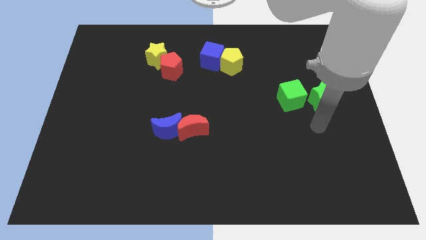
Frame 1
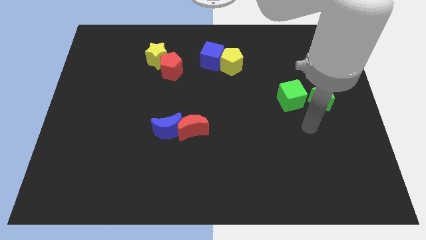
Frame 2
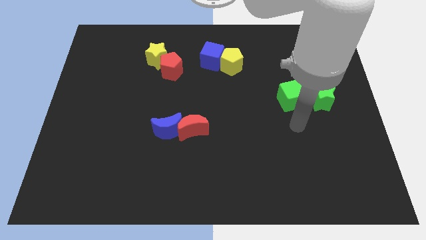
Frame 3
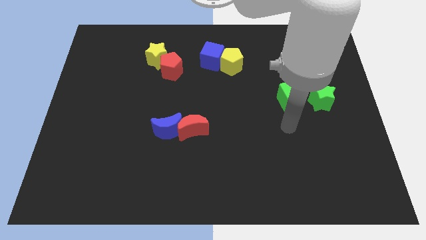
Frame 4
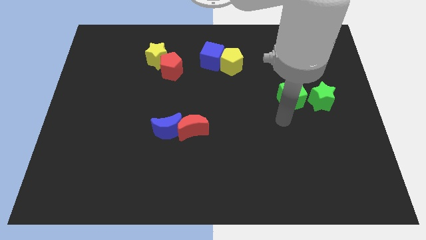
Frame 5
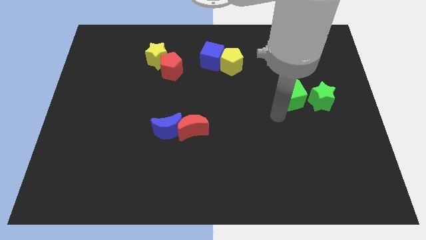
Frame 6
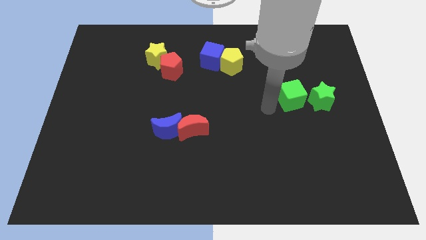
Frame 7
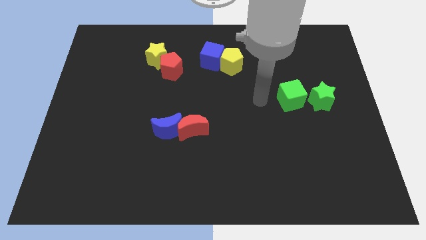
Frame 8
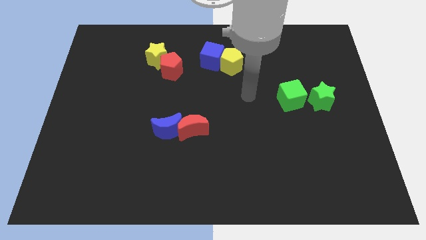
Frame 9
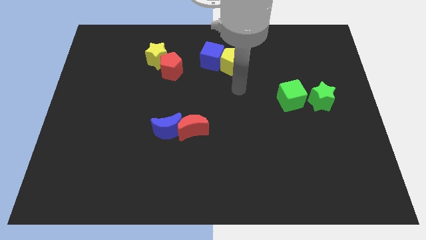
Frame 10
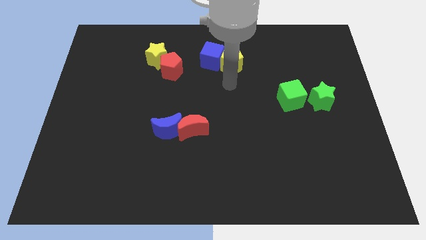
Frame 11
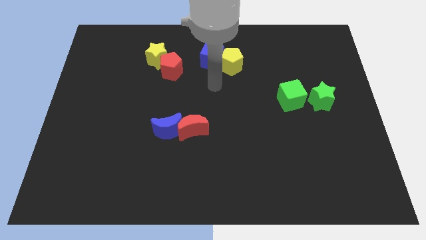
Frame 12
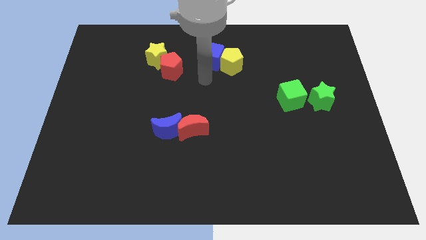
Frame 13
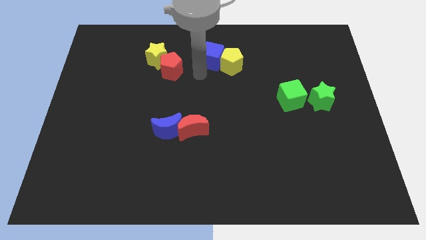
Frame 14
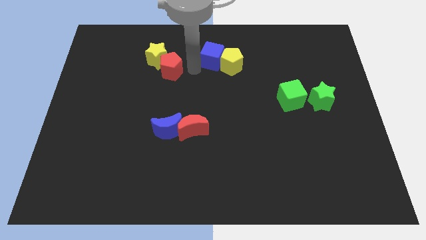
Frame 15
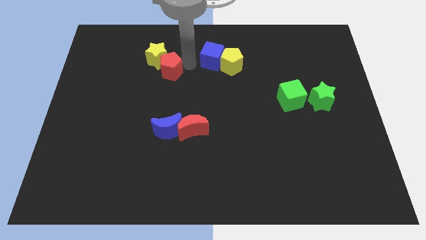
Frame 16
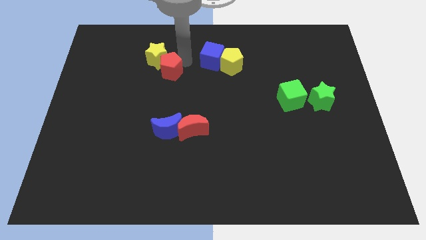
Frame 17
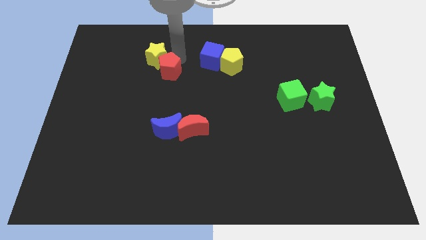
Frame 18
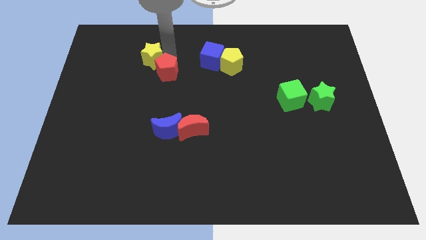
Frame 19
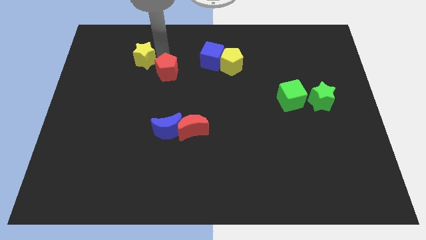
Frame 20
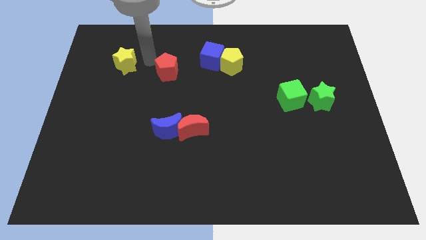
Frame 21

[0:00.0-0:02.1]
pull the red pentagon apart from the yellow star

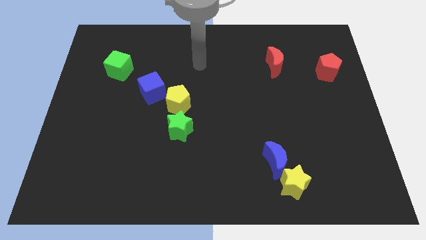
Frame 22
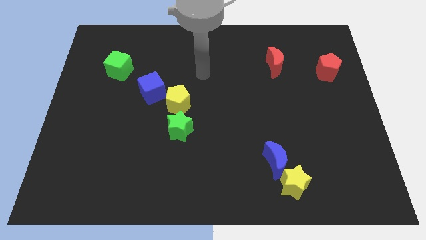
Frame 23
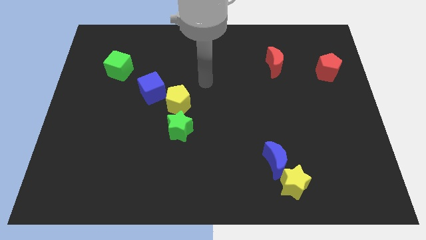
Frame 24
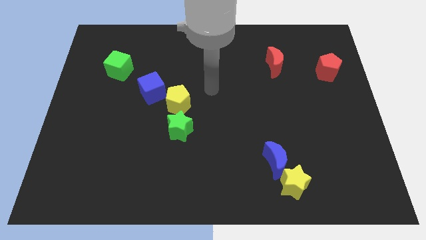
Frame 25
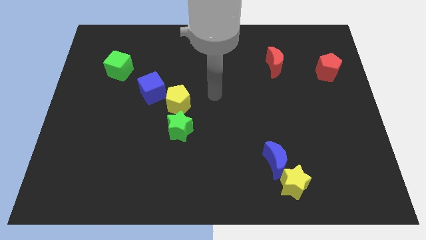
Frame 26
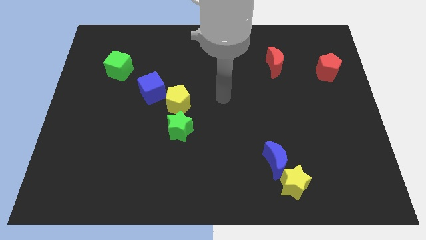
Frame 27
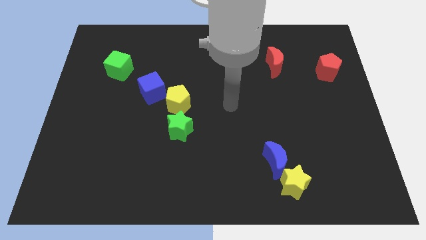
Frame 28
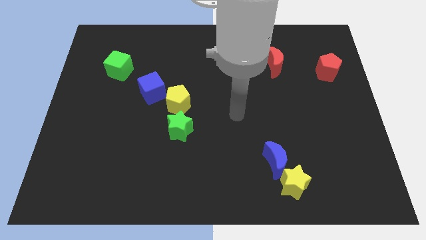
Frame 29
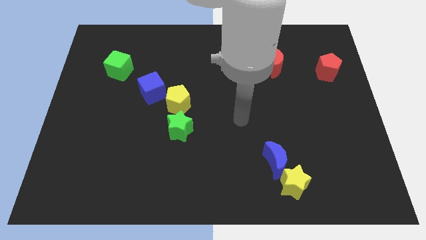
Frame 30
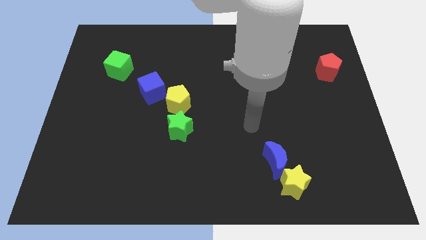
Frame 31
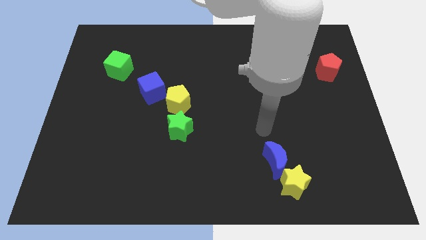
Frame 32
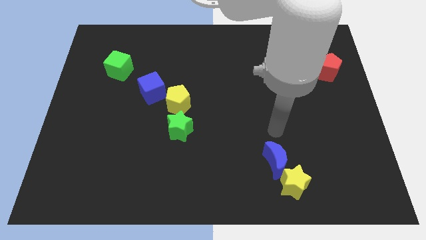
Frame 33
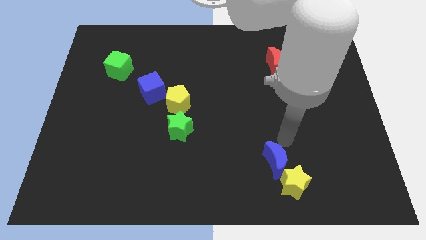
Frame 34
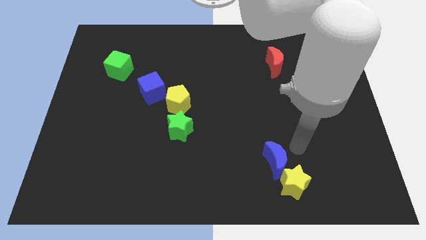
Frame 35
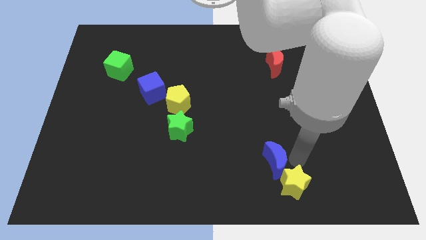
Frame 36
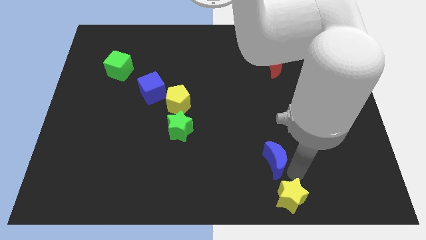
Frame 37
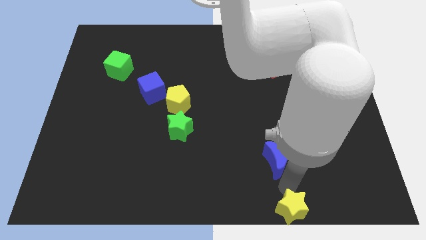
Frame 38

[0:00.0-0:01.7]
move the blue moon away from the yellow star

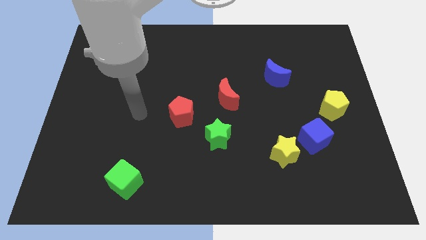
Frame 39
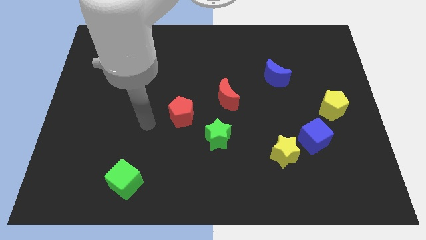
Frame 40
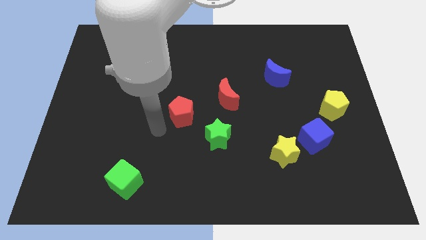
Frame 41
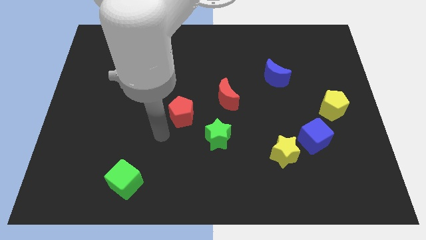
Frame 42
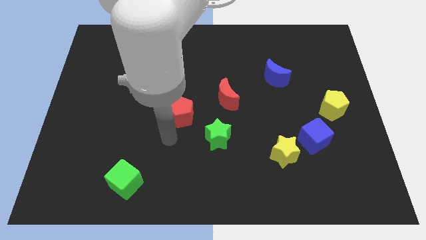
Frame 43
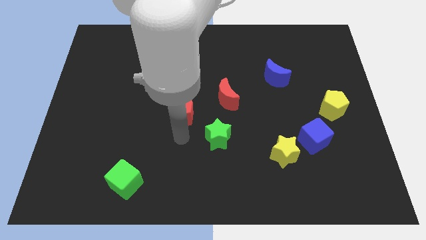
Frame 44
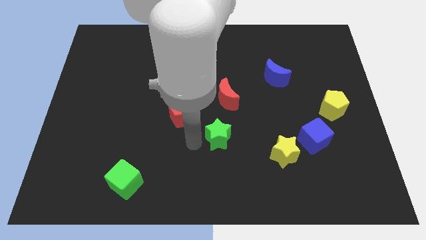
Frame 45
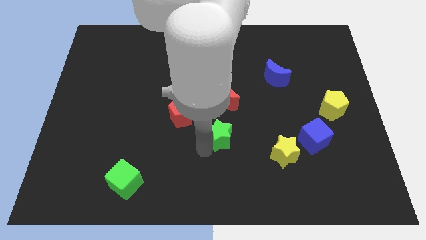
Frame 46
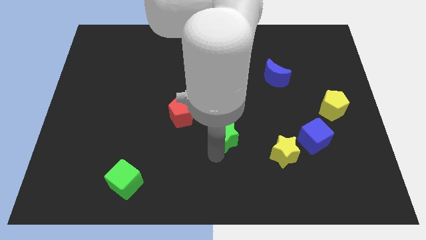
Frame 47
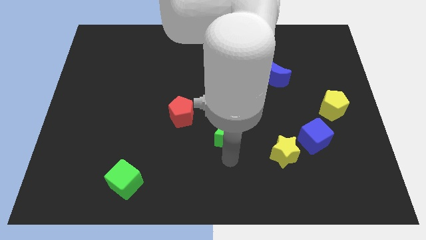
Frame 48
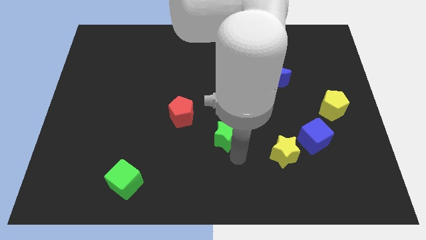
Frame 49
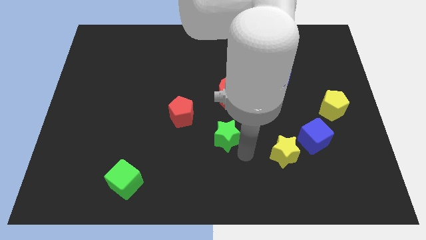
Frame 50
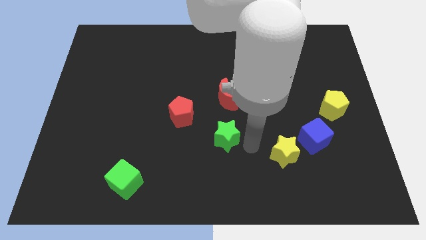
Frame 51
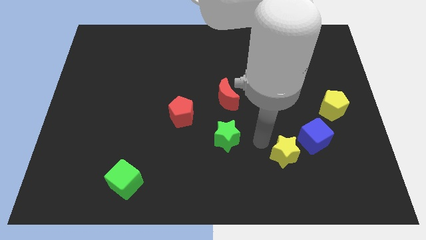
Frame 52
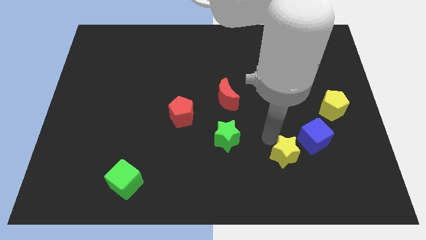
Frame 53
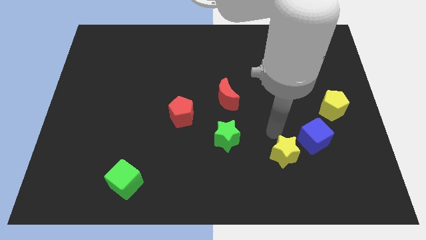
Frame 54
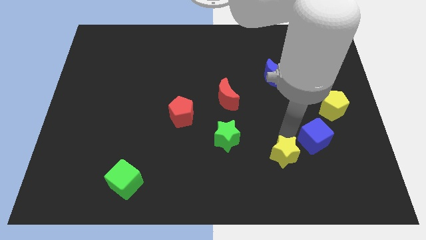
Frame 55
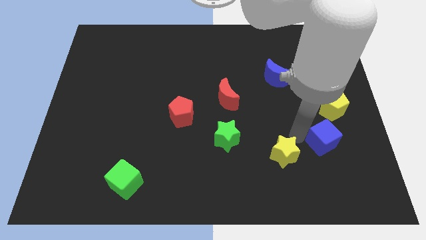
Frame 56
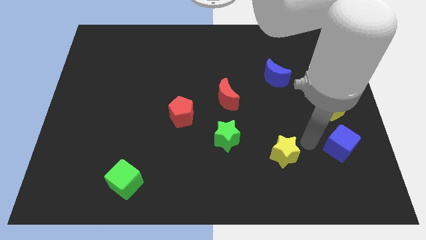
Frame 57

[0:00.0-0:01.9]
move the yellow star away from the blue cube

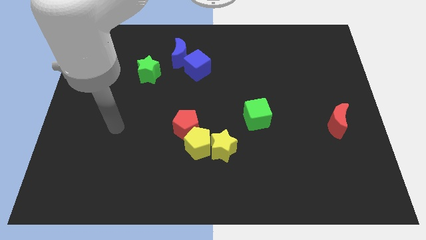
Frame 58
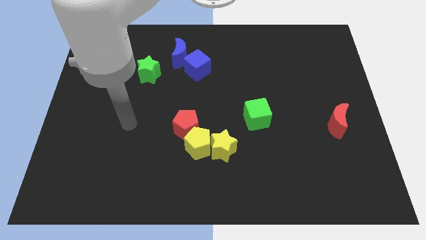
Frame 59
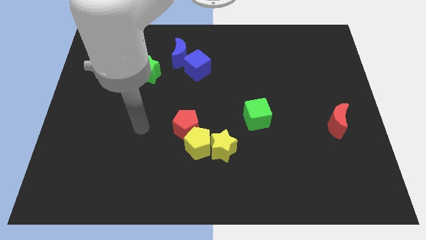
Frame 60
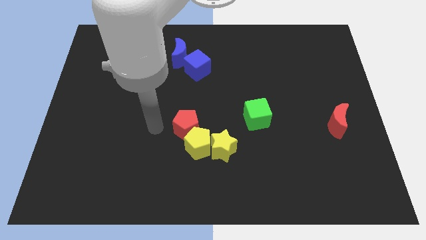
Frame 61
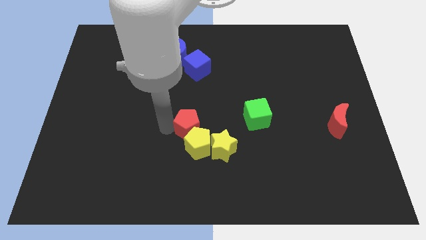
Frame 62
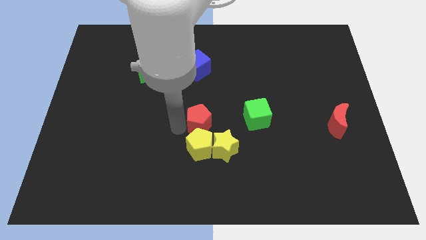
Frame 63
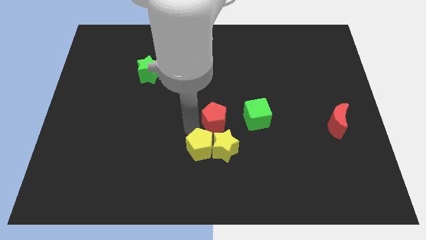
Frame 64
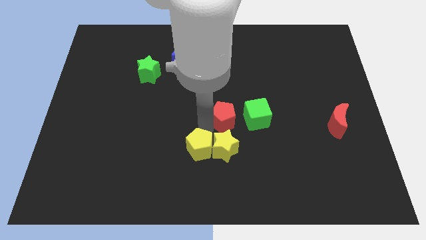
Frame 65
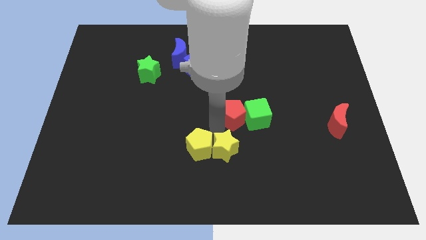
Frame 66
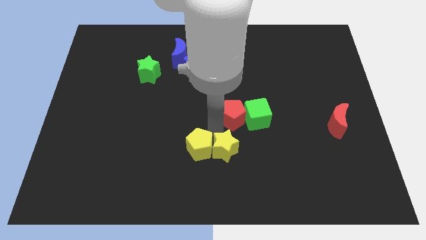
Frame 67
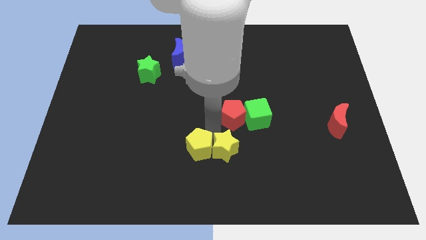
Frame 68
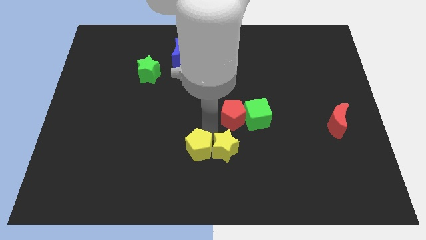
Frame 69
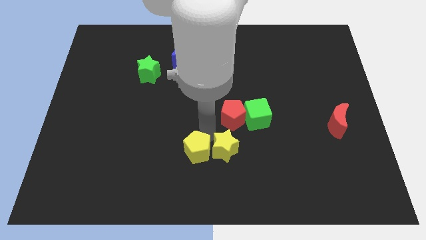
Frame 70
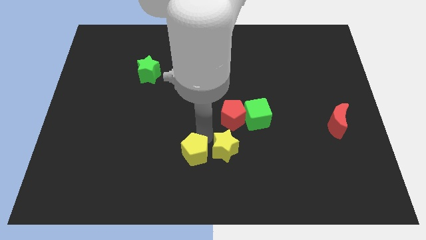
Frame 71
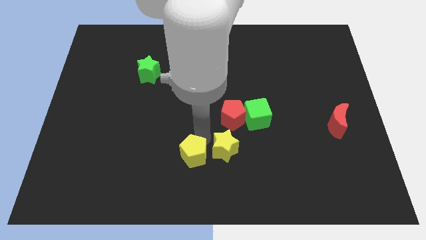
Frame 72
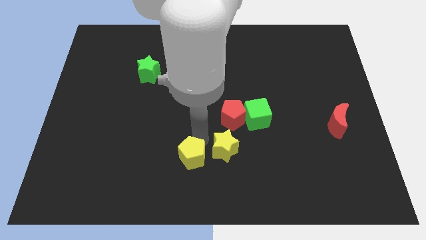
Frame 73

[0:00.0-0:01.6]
separate the yellow pentagon from the yellow star and red pentagon

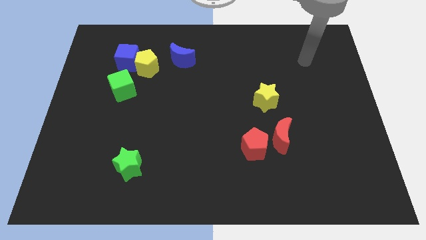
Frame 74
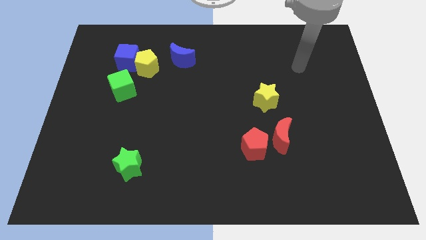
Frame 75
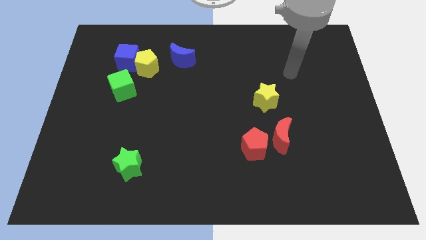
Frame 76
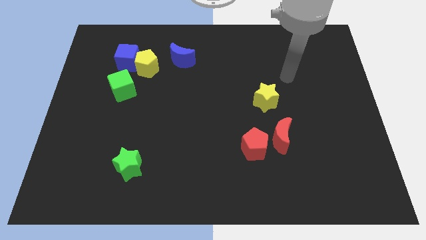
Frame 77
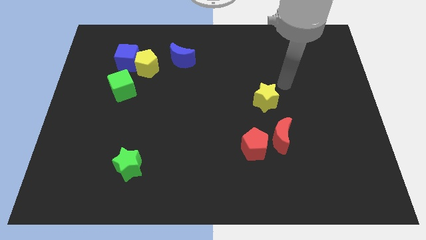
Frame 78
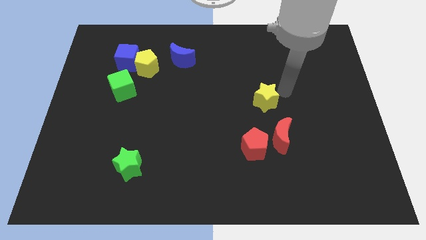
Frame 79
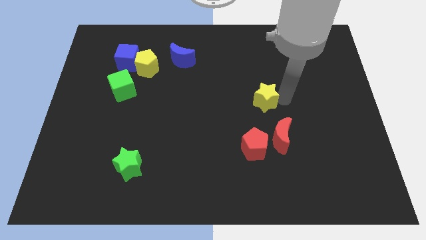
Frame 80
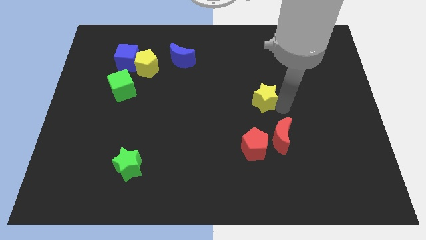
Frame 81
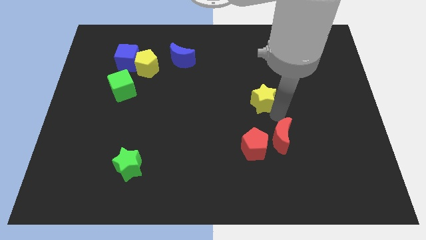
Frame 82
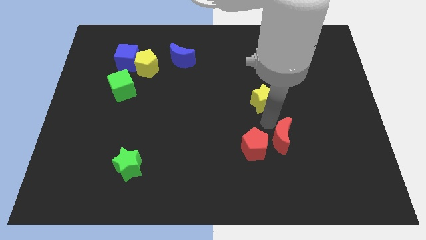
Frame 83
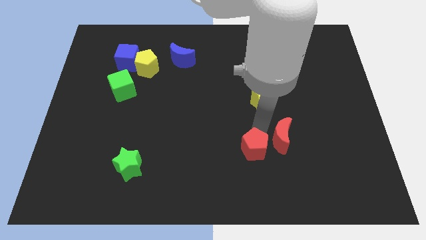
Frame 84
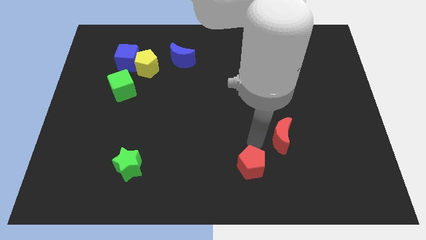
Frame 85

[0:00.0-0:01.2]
pull the red moon apart from the red pentagon

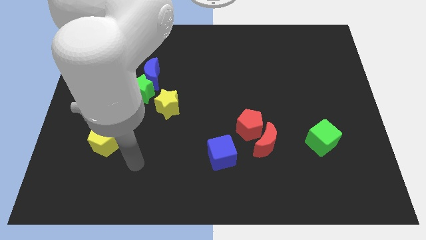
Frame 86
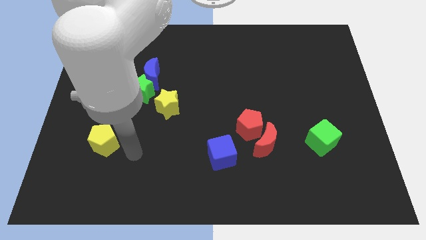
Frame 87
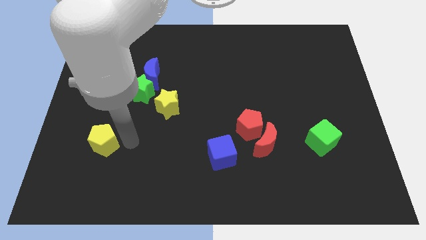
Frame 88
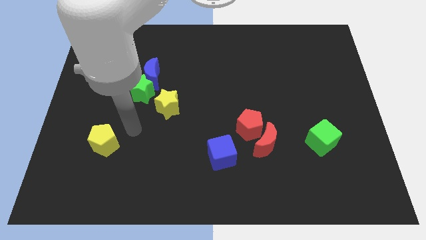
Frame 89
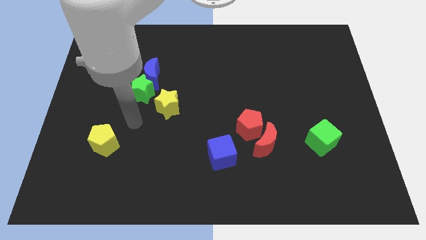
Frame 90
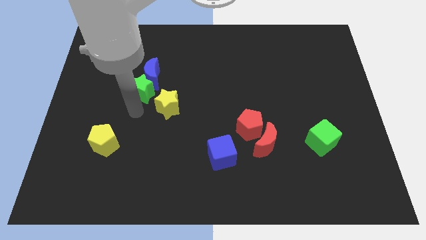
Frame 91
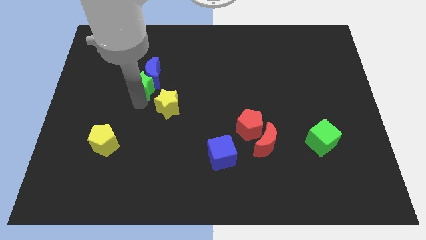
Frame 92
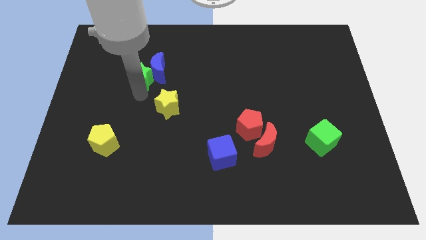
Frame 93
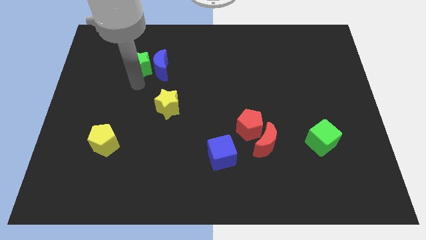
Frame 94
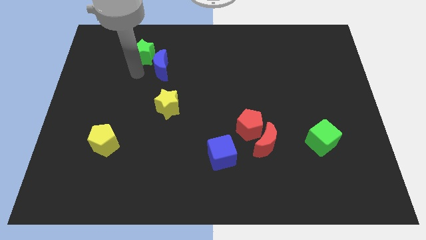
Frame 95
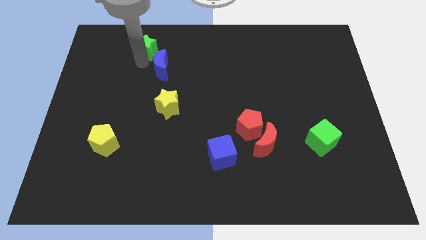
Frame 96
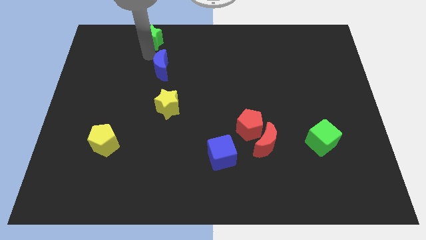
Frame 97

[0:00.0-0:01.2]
separate the blue moon from the green star
